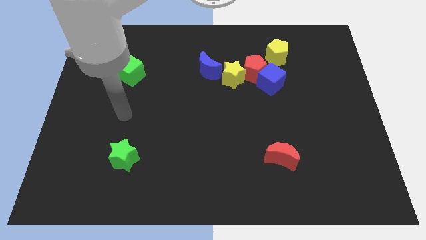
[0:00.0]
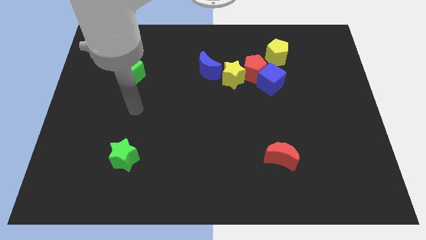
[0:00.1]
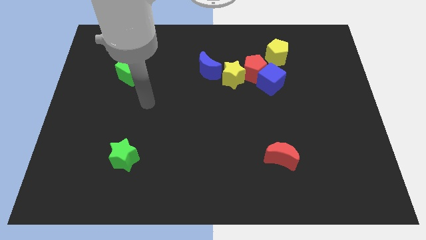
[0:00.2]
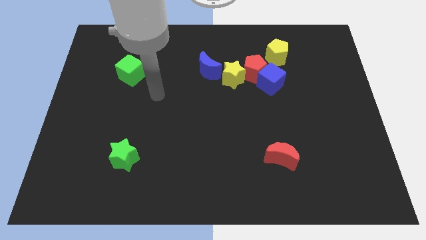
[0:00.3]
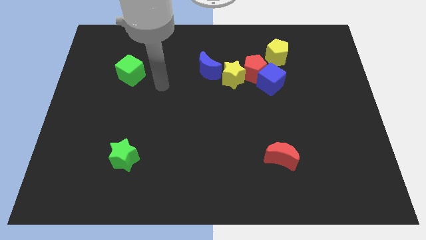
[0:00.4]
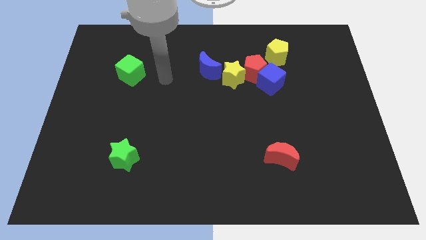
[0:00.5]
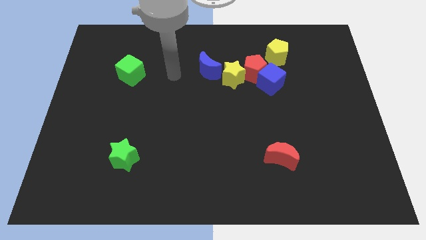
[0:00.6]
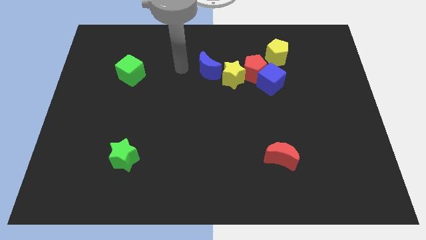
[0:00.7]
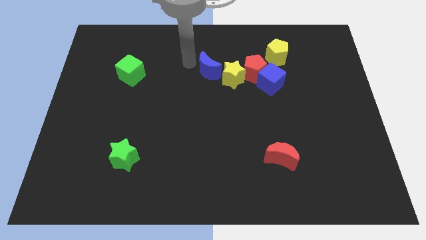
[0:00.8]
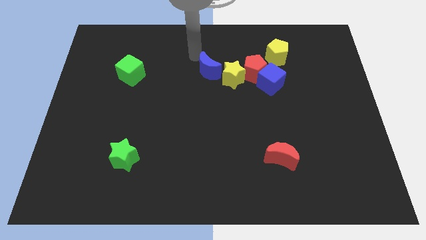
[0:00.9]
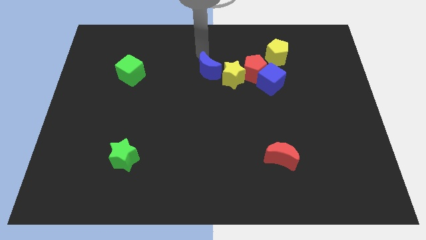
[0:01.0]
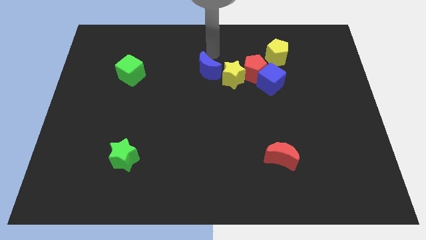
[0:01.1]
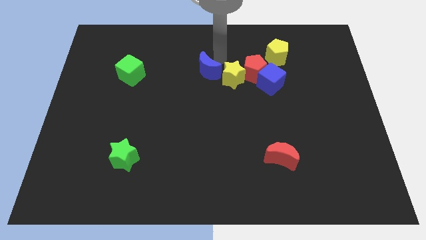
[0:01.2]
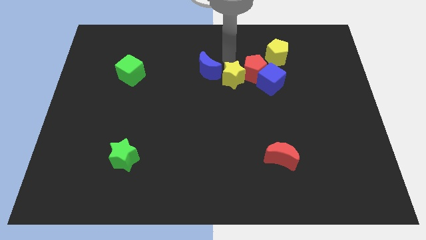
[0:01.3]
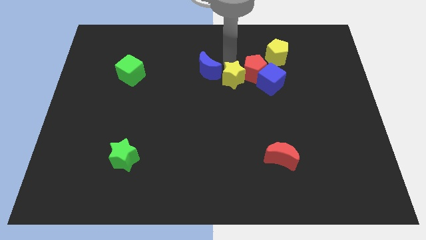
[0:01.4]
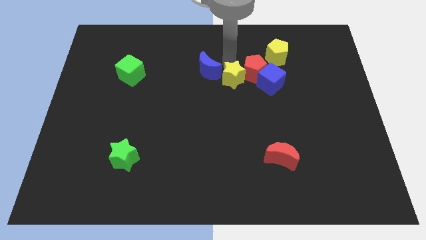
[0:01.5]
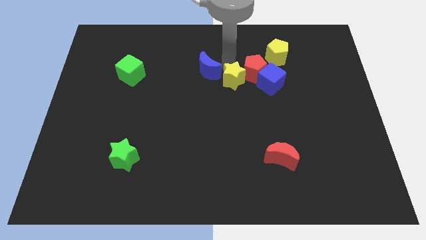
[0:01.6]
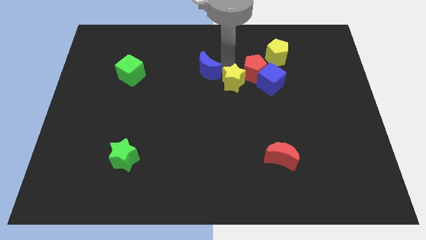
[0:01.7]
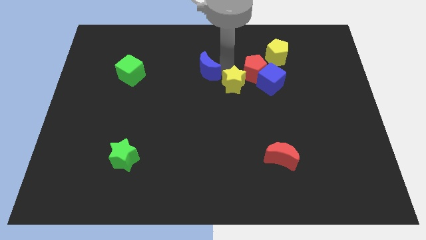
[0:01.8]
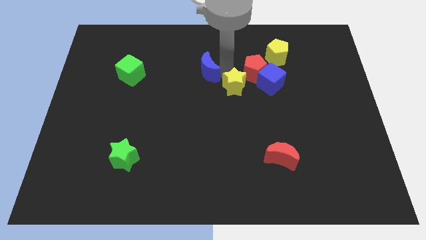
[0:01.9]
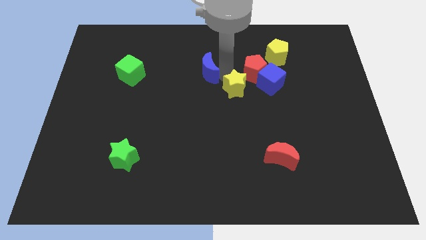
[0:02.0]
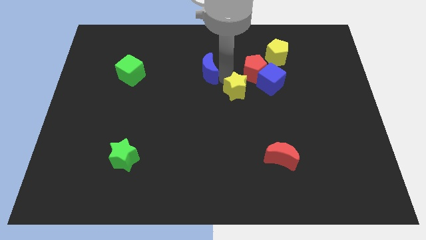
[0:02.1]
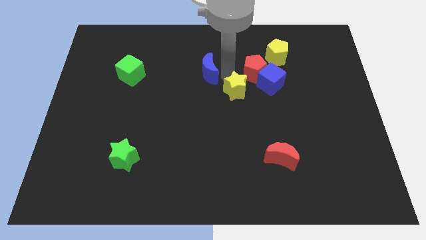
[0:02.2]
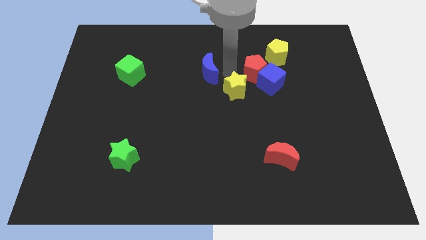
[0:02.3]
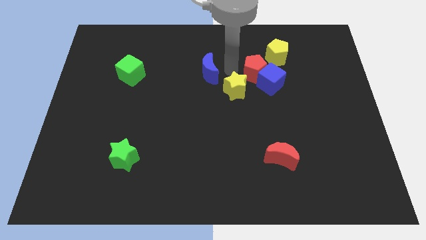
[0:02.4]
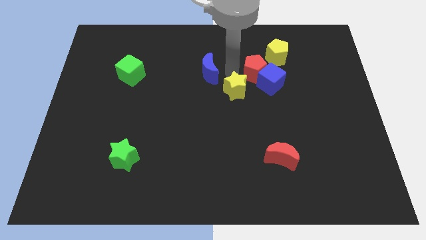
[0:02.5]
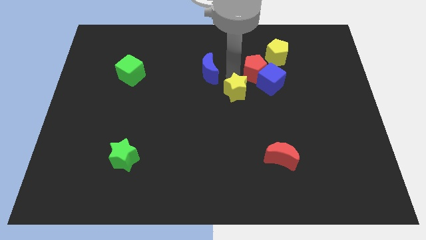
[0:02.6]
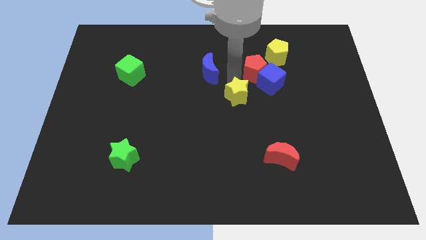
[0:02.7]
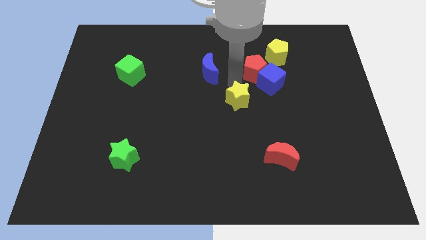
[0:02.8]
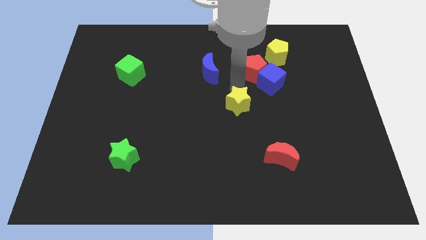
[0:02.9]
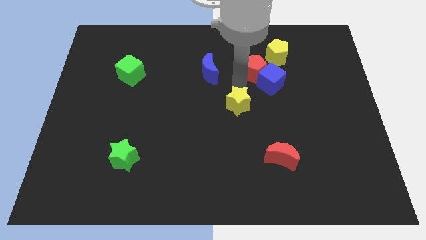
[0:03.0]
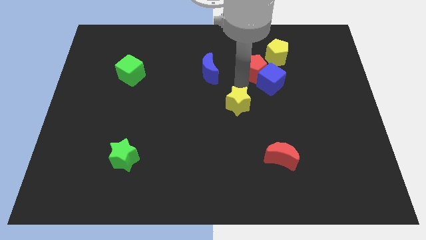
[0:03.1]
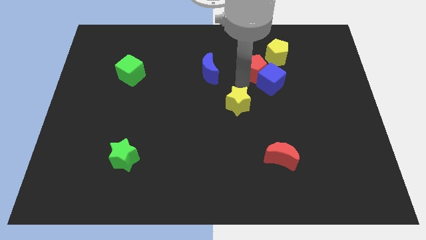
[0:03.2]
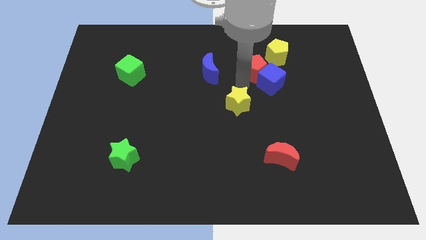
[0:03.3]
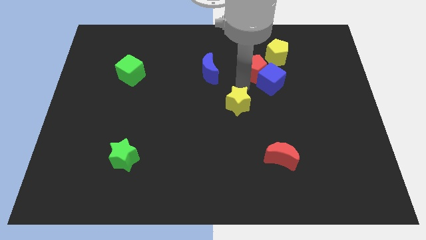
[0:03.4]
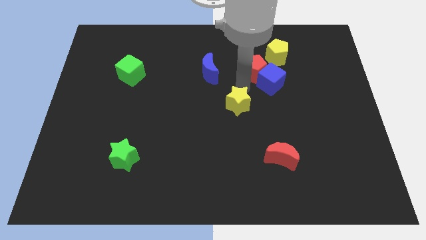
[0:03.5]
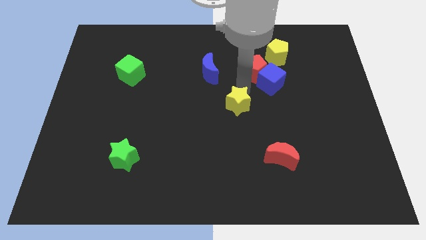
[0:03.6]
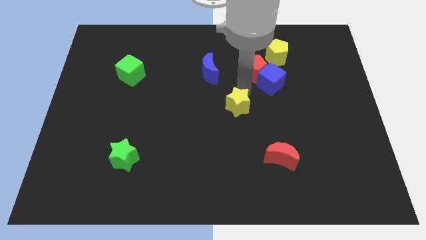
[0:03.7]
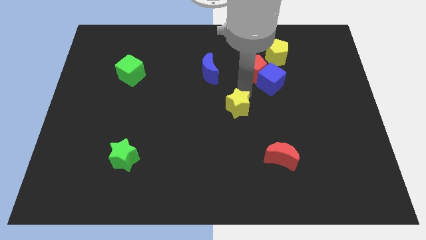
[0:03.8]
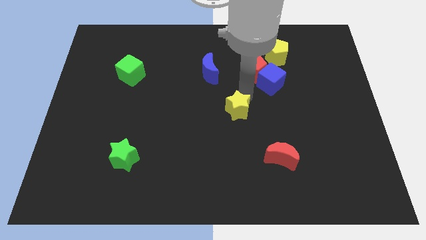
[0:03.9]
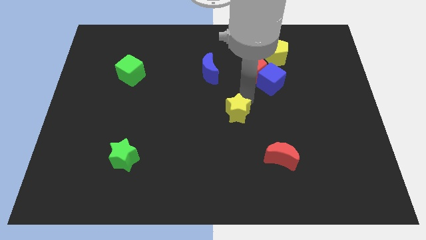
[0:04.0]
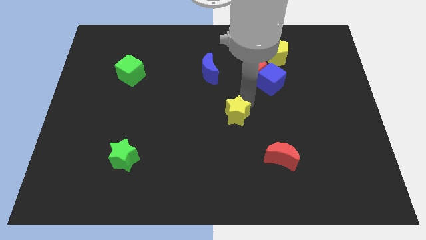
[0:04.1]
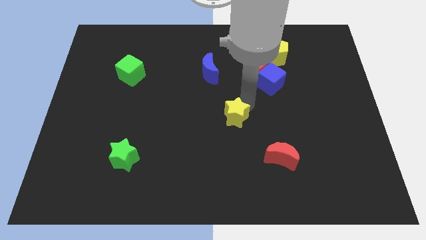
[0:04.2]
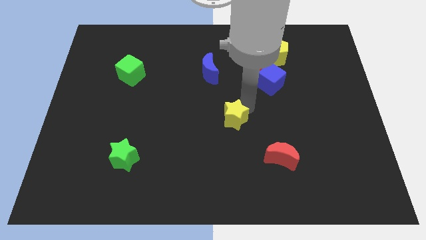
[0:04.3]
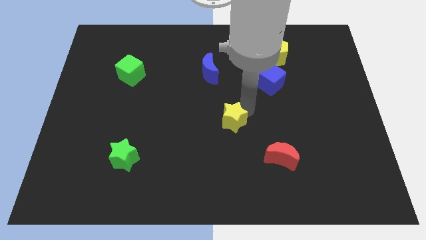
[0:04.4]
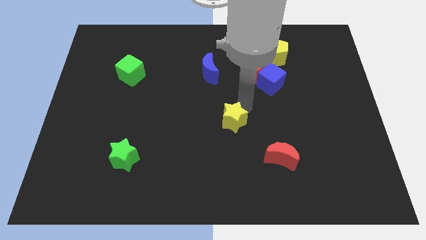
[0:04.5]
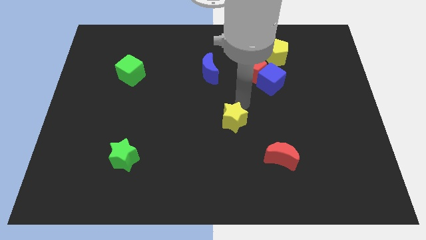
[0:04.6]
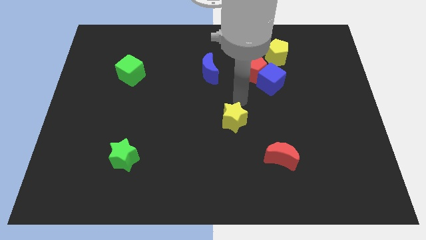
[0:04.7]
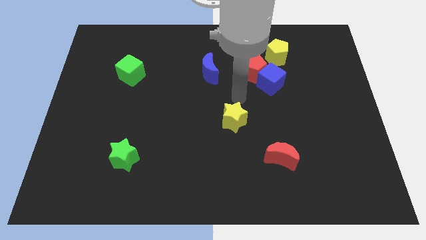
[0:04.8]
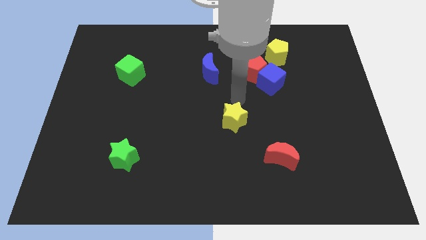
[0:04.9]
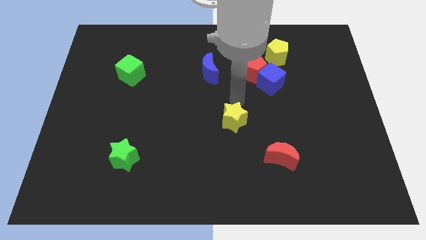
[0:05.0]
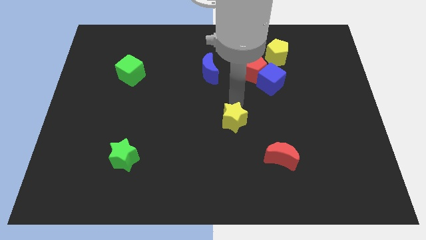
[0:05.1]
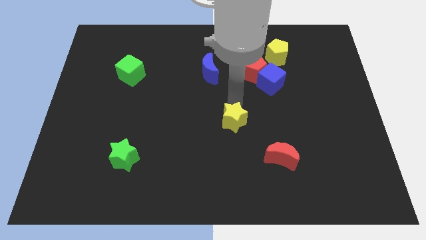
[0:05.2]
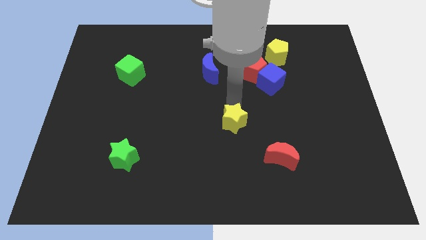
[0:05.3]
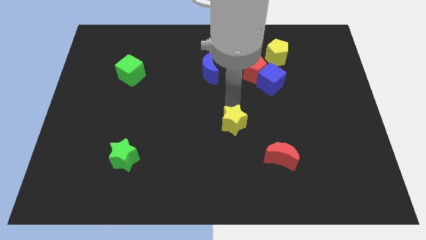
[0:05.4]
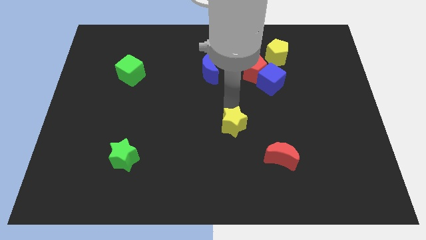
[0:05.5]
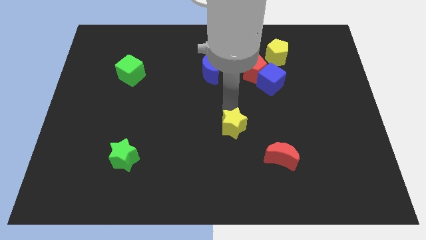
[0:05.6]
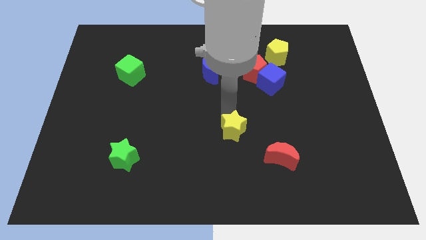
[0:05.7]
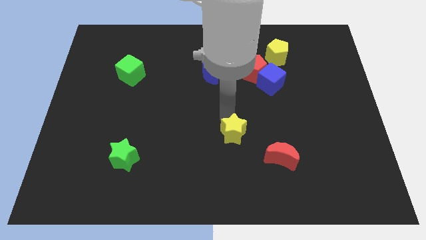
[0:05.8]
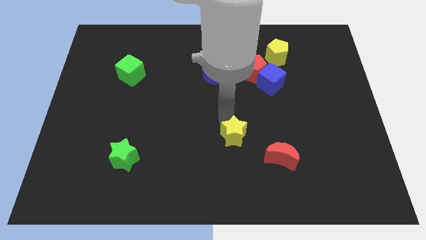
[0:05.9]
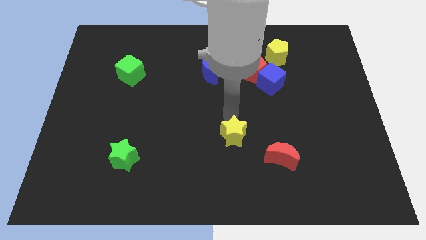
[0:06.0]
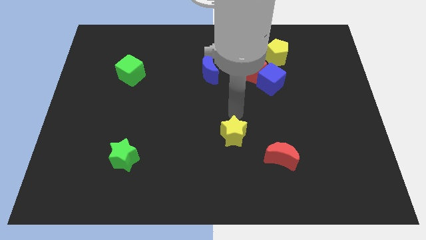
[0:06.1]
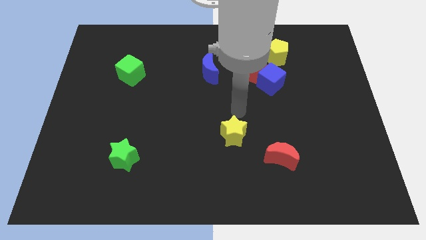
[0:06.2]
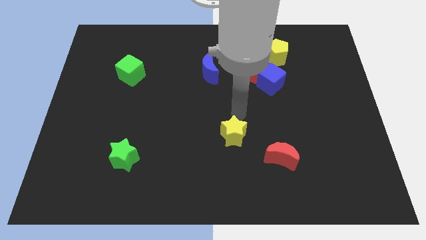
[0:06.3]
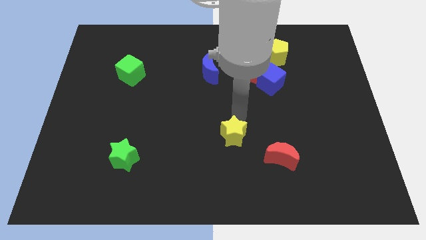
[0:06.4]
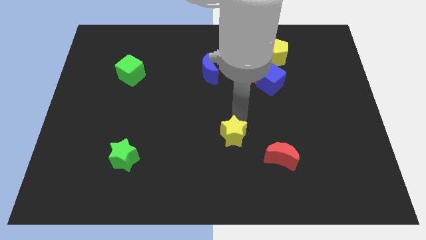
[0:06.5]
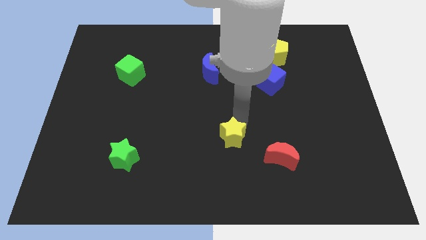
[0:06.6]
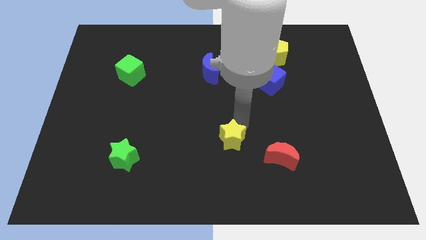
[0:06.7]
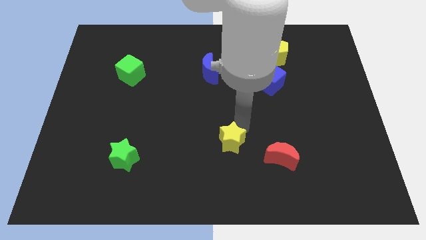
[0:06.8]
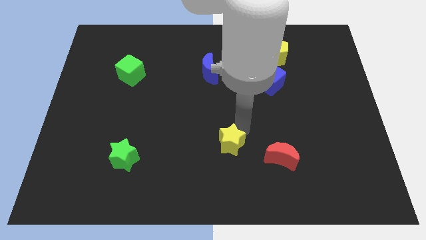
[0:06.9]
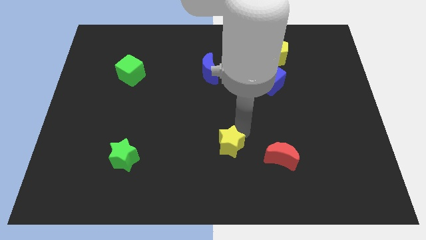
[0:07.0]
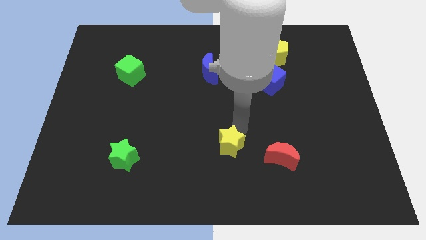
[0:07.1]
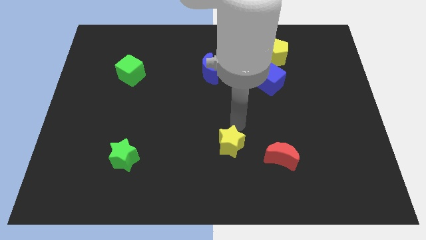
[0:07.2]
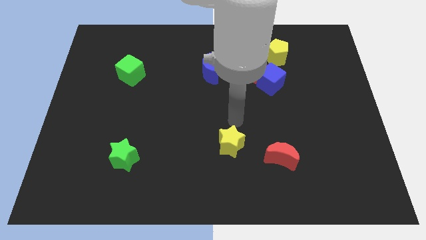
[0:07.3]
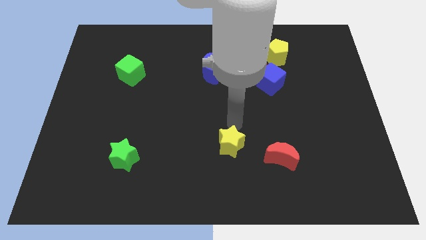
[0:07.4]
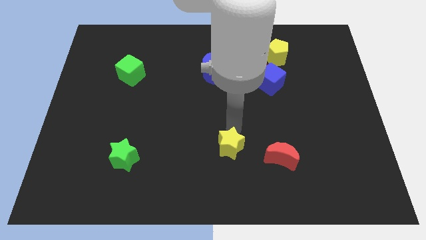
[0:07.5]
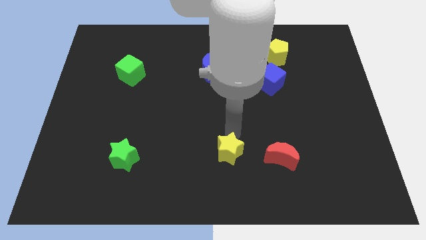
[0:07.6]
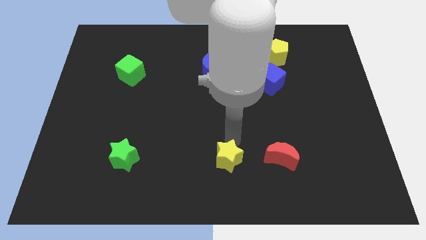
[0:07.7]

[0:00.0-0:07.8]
push the yellow star to the bottom
